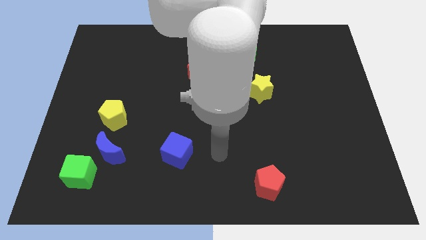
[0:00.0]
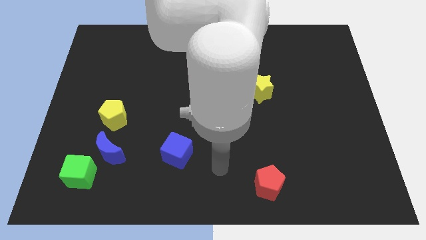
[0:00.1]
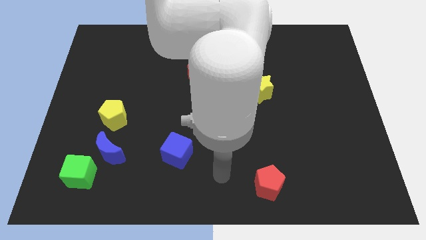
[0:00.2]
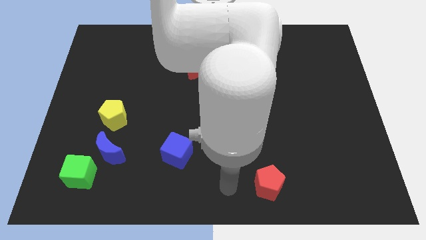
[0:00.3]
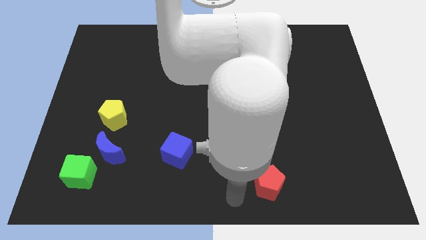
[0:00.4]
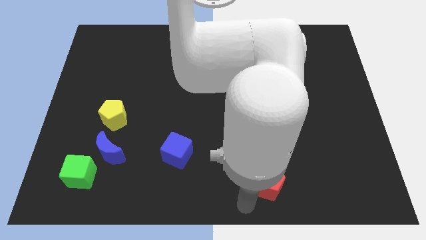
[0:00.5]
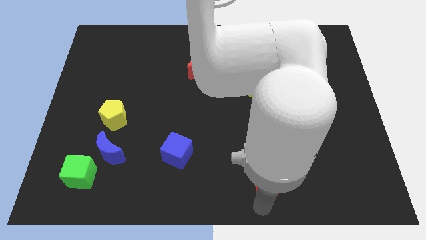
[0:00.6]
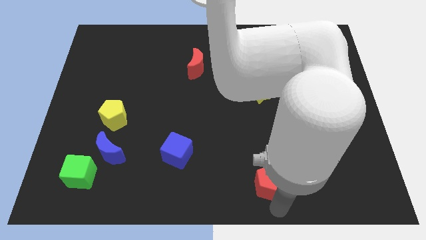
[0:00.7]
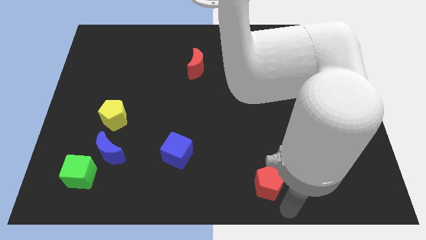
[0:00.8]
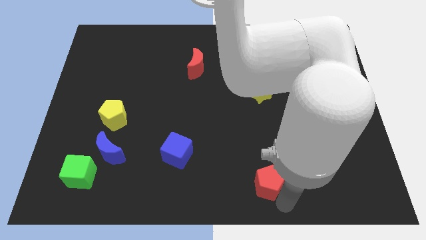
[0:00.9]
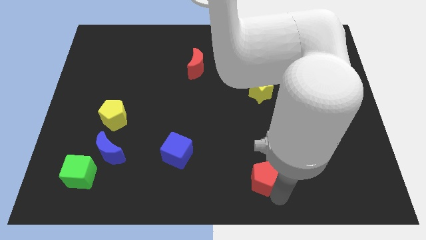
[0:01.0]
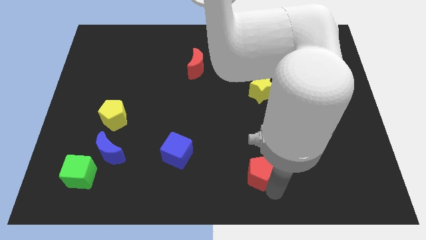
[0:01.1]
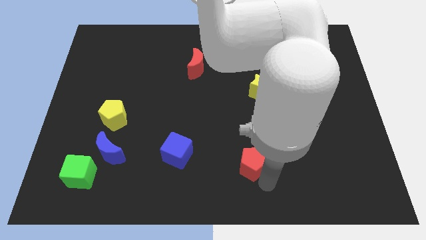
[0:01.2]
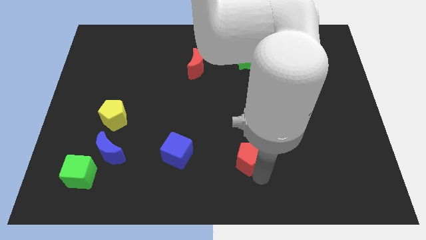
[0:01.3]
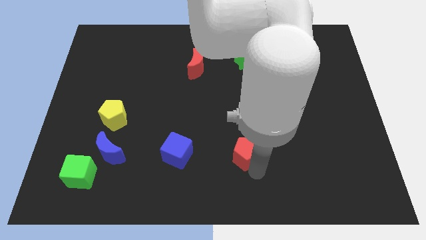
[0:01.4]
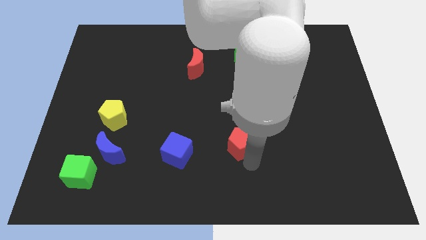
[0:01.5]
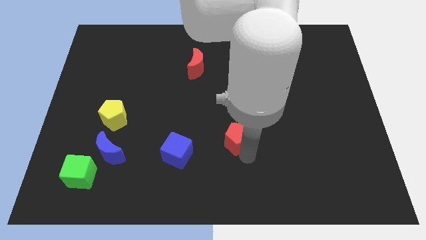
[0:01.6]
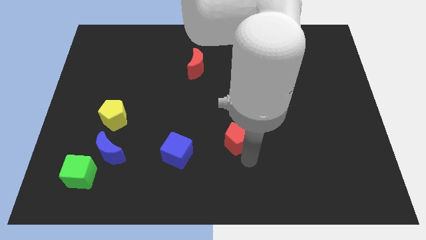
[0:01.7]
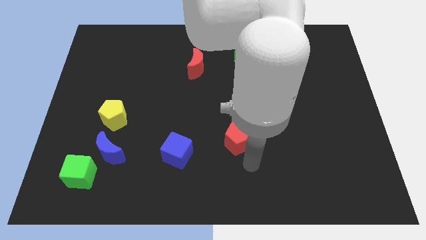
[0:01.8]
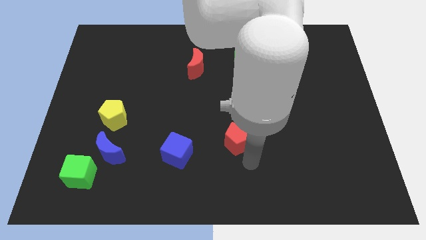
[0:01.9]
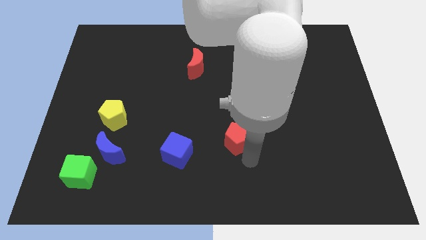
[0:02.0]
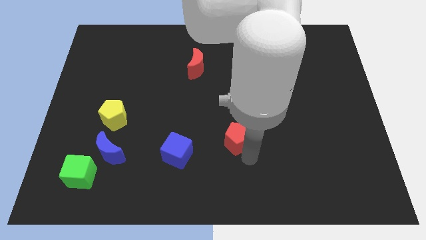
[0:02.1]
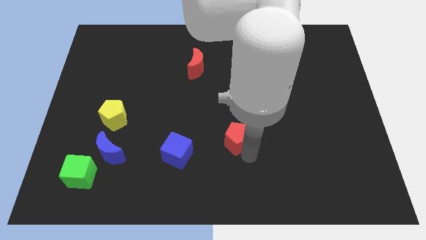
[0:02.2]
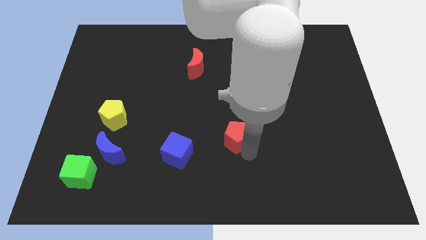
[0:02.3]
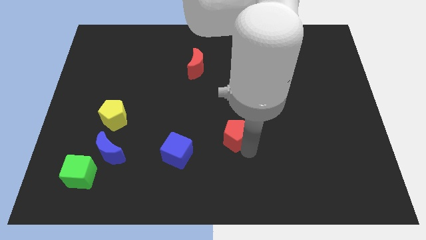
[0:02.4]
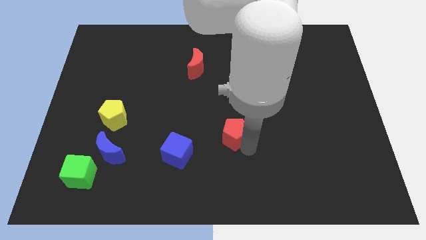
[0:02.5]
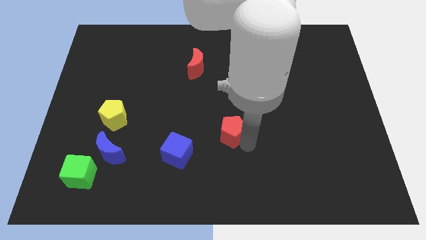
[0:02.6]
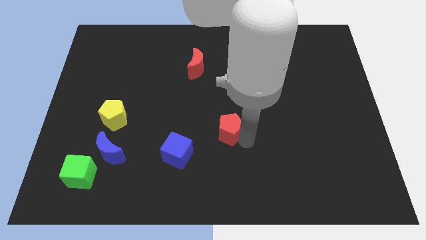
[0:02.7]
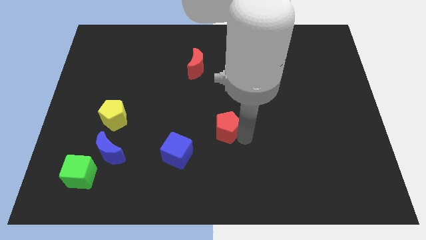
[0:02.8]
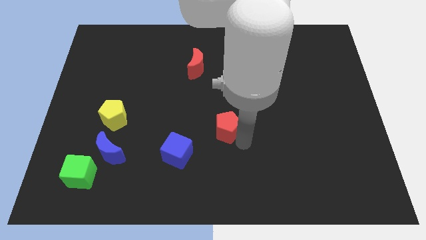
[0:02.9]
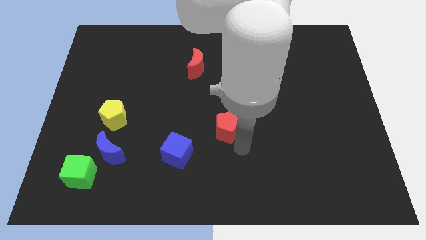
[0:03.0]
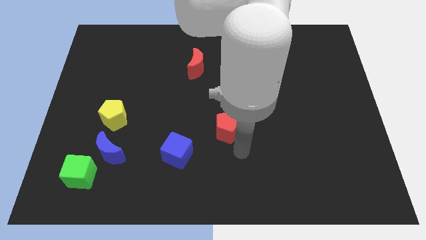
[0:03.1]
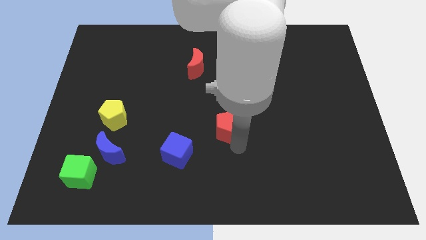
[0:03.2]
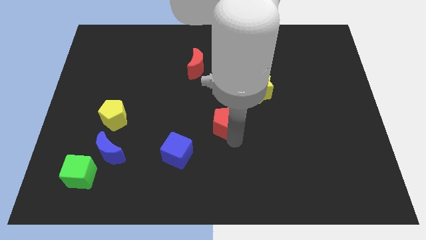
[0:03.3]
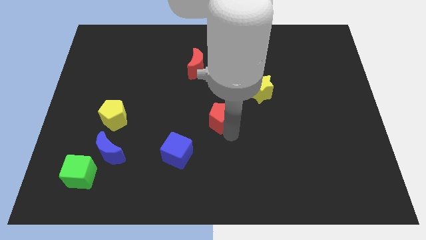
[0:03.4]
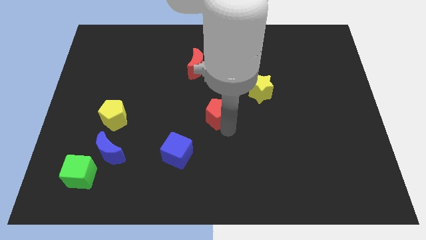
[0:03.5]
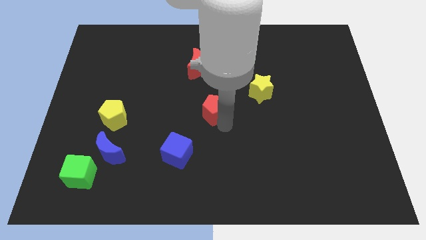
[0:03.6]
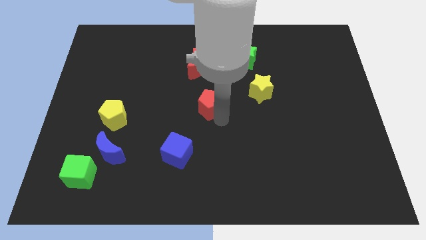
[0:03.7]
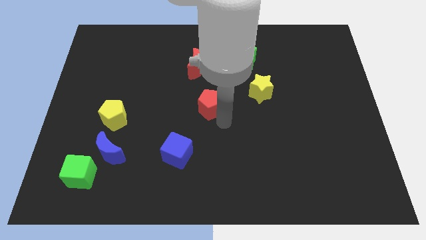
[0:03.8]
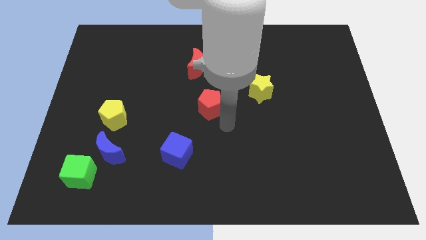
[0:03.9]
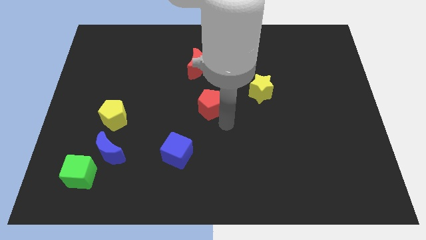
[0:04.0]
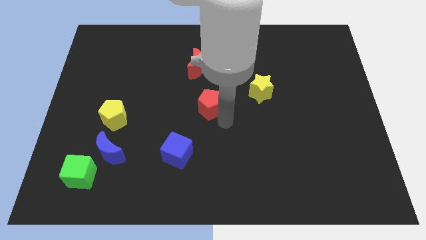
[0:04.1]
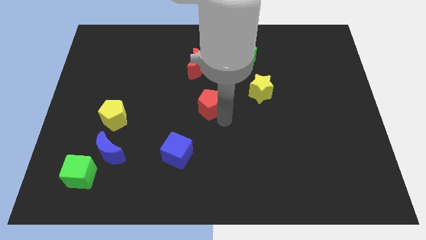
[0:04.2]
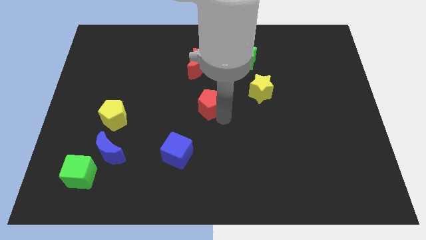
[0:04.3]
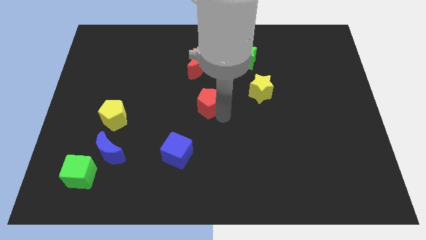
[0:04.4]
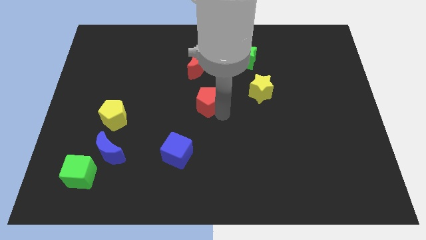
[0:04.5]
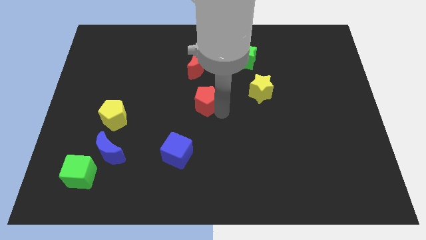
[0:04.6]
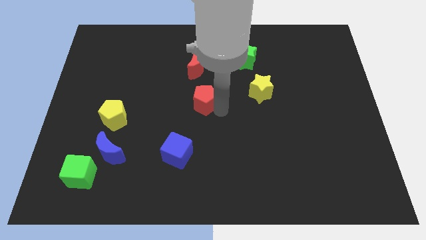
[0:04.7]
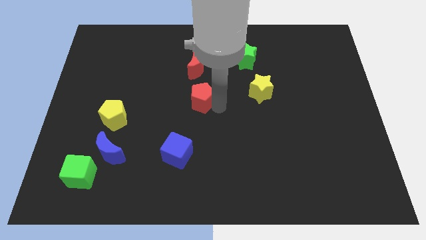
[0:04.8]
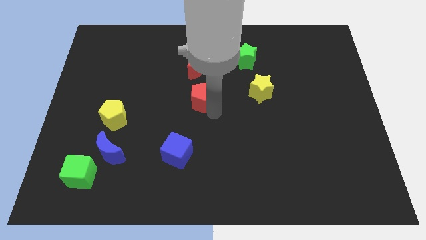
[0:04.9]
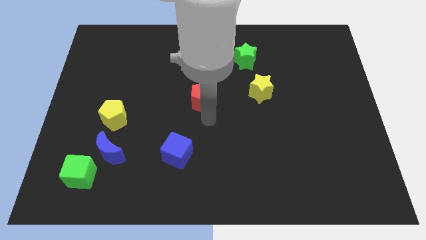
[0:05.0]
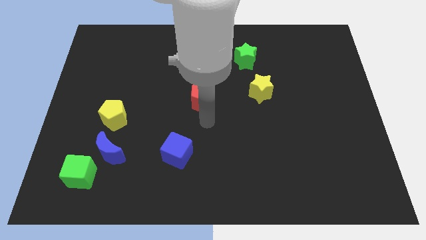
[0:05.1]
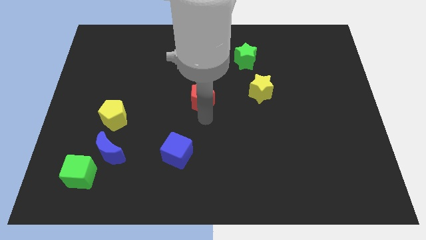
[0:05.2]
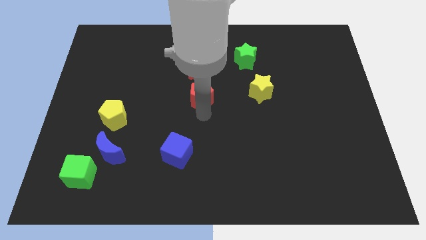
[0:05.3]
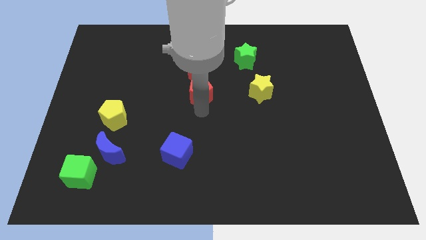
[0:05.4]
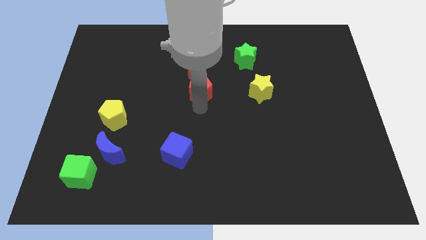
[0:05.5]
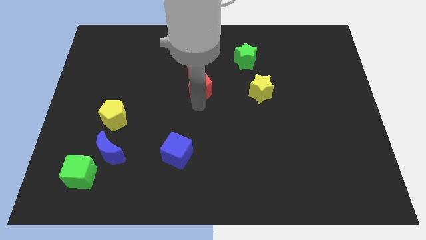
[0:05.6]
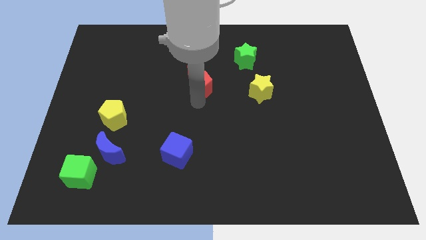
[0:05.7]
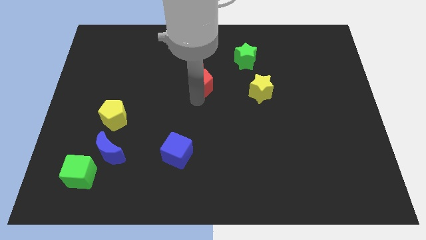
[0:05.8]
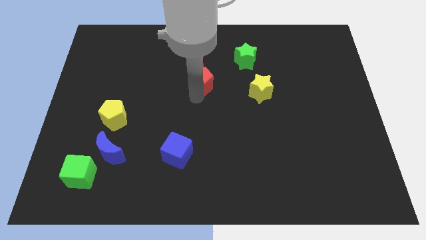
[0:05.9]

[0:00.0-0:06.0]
put the red pentagon close to the red moon
